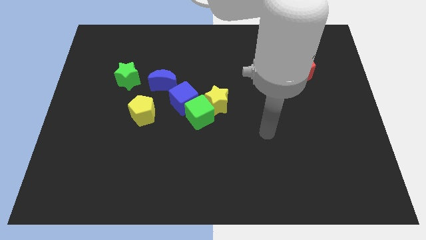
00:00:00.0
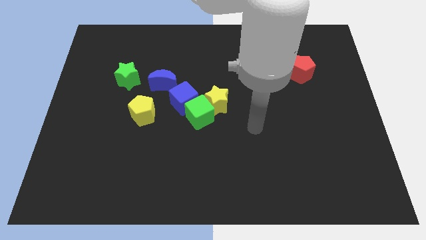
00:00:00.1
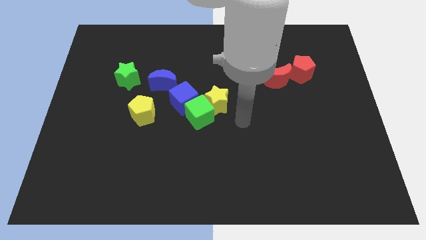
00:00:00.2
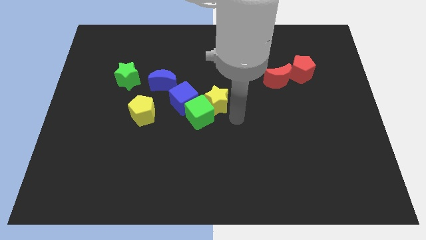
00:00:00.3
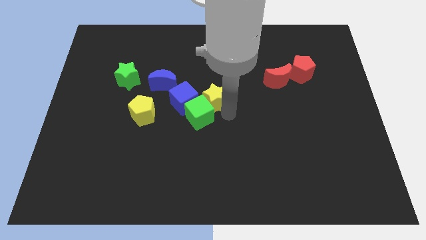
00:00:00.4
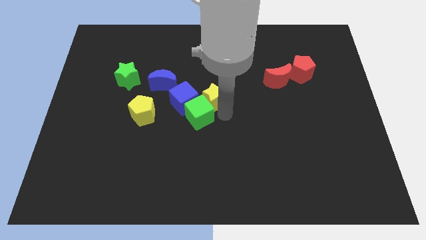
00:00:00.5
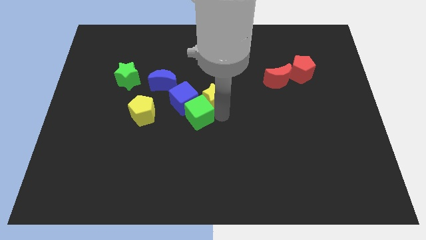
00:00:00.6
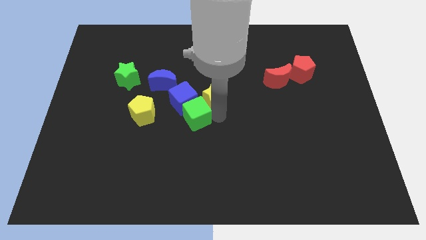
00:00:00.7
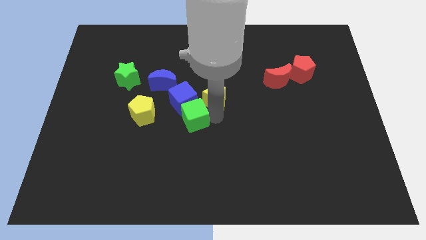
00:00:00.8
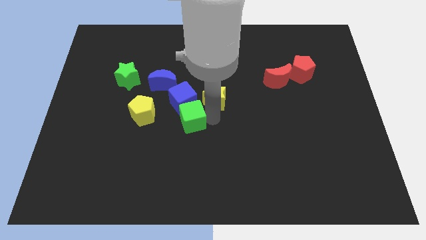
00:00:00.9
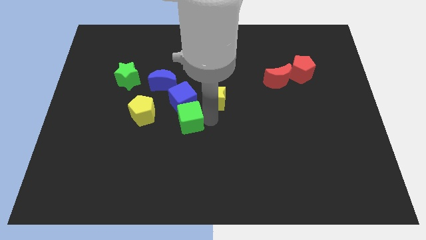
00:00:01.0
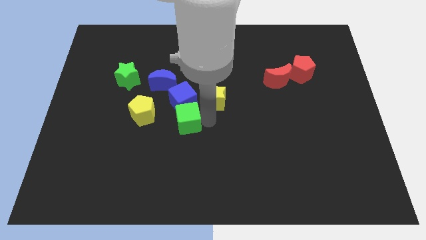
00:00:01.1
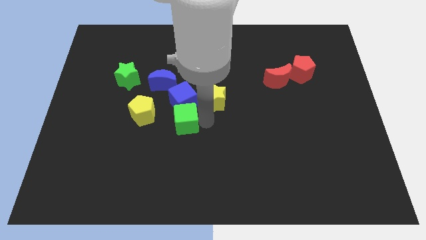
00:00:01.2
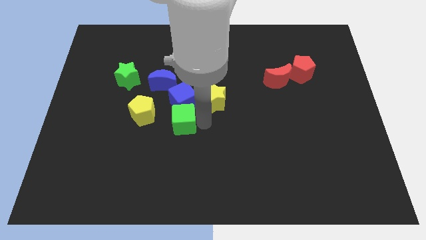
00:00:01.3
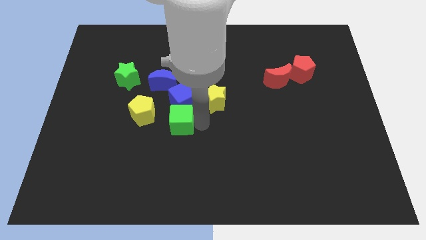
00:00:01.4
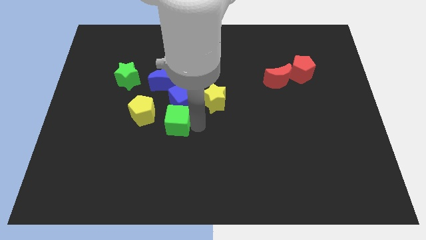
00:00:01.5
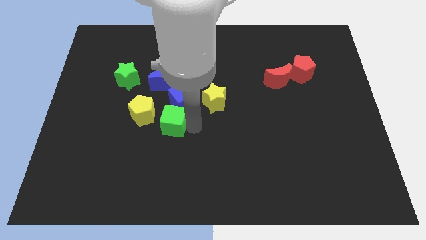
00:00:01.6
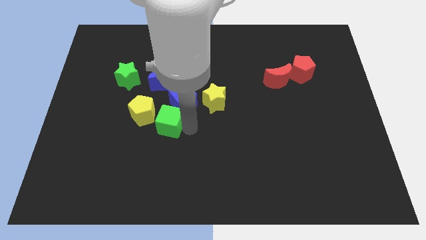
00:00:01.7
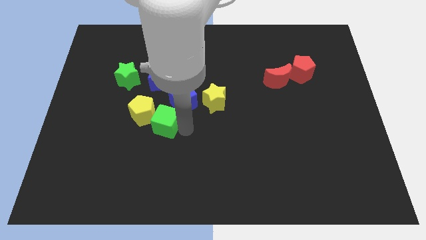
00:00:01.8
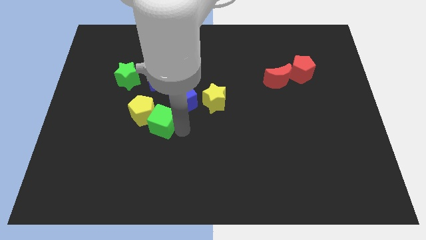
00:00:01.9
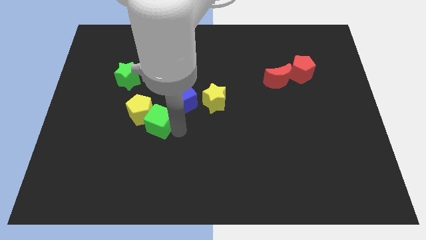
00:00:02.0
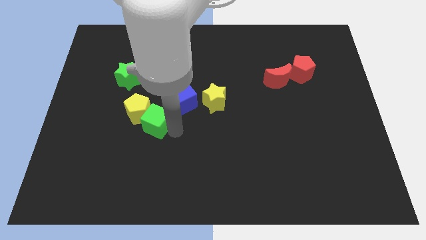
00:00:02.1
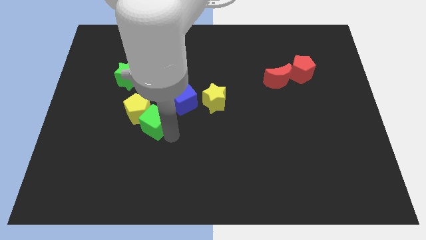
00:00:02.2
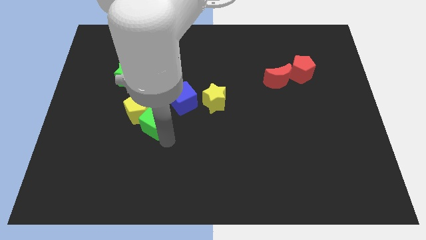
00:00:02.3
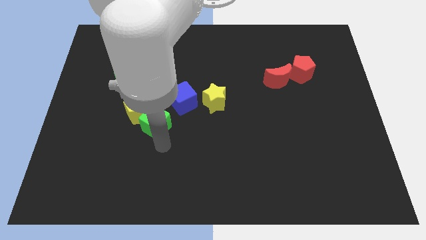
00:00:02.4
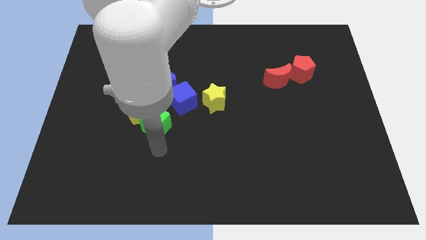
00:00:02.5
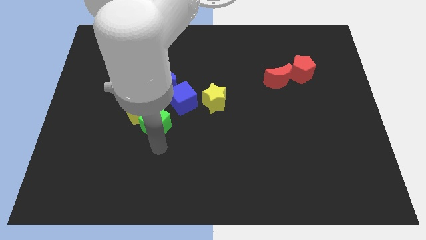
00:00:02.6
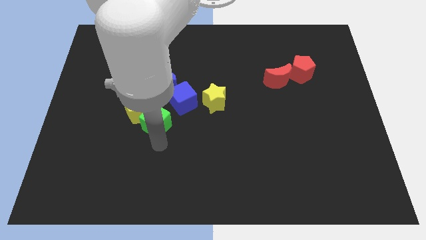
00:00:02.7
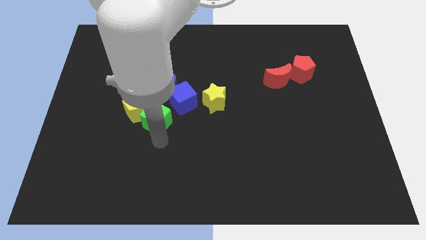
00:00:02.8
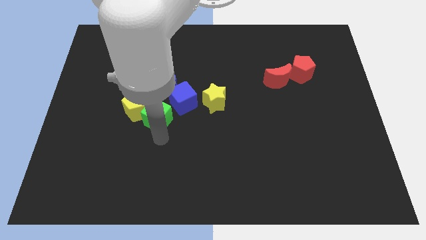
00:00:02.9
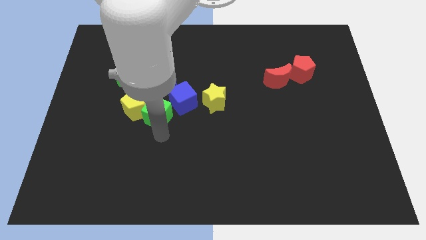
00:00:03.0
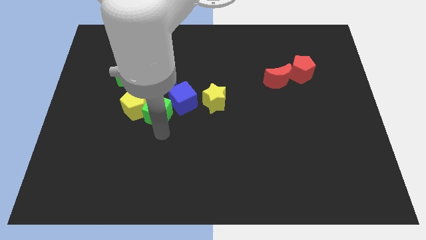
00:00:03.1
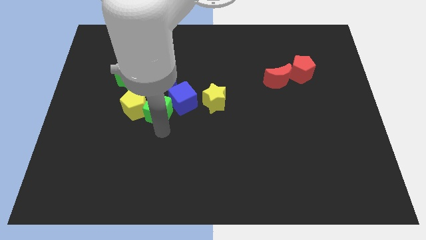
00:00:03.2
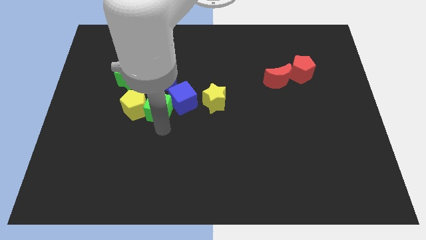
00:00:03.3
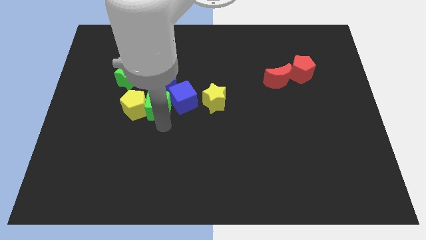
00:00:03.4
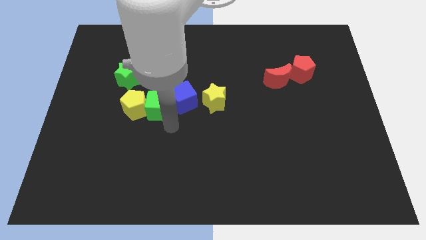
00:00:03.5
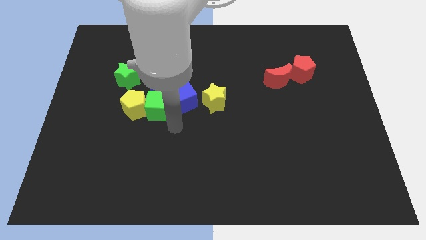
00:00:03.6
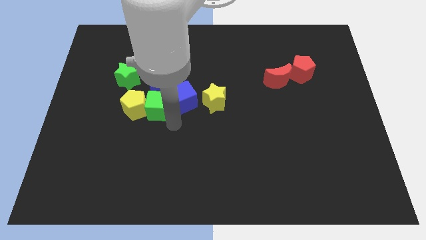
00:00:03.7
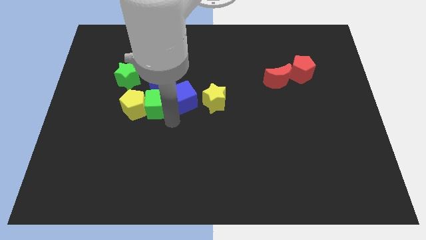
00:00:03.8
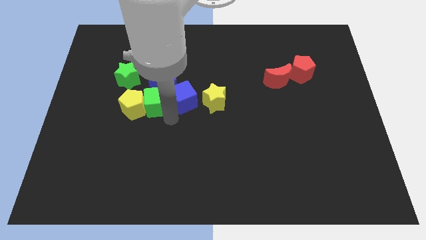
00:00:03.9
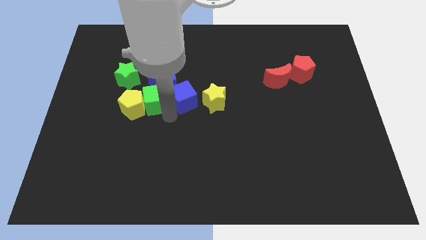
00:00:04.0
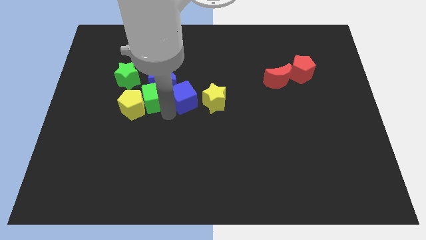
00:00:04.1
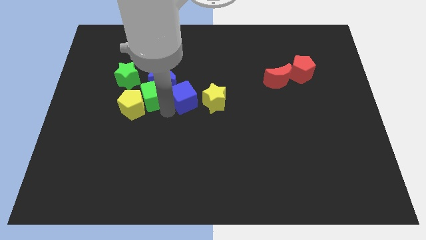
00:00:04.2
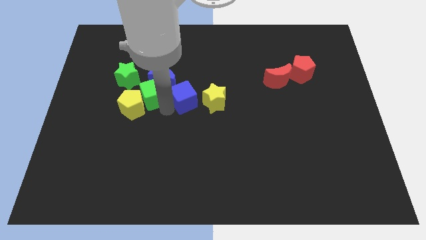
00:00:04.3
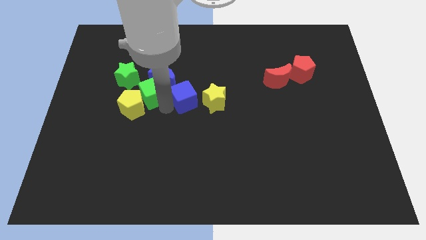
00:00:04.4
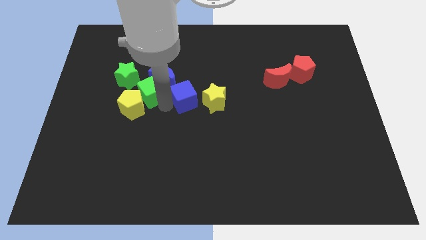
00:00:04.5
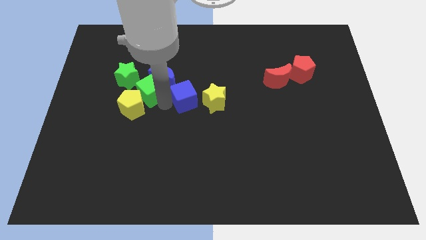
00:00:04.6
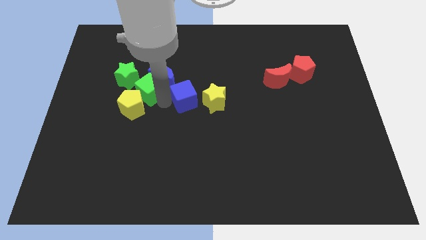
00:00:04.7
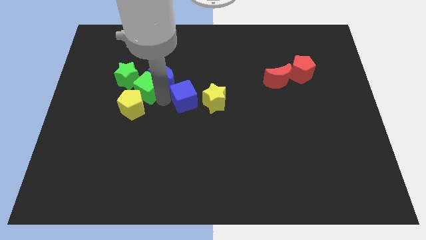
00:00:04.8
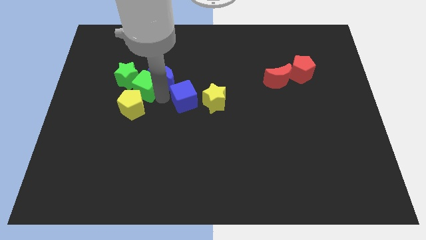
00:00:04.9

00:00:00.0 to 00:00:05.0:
move the green cube to the green star

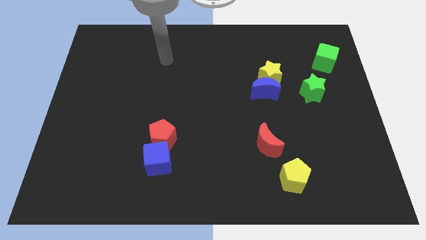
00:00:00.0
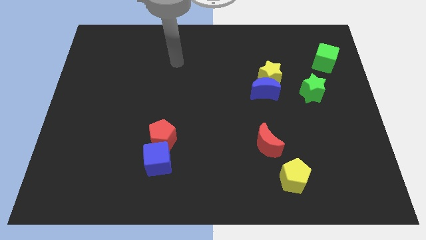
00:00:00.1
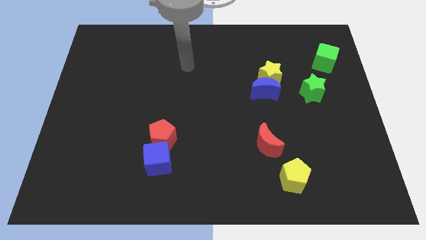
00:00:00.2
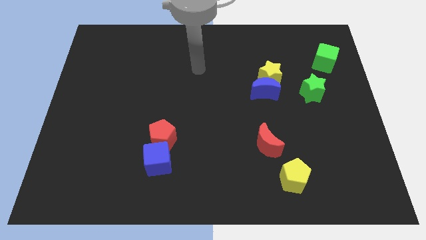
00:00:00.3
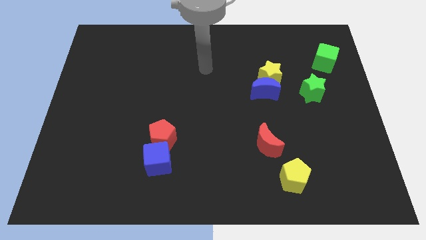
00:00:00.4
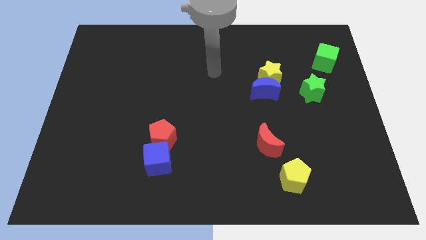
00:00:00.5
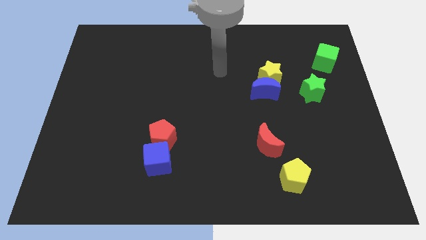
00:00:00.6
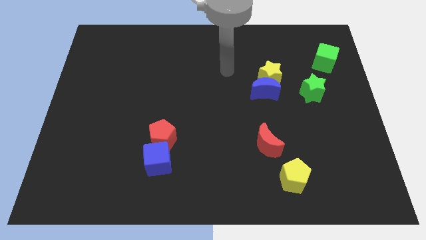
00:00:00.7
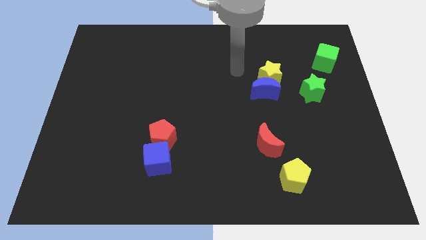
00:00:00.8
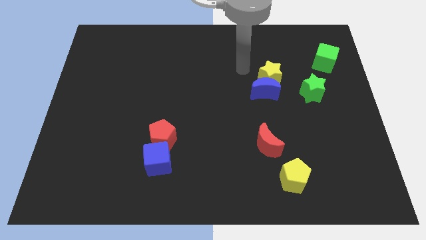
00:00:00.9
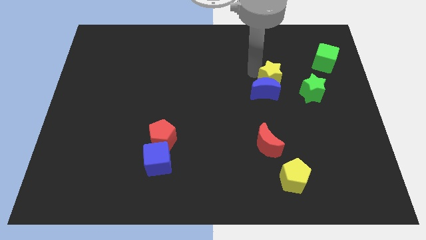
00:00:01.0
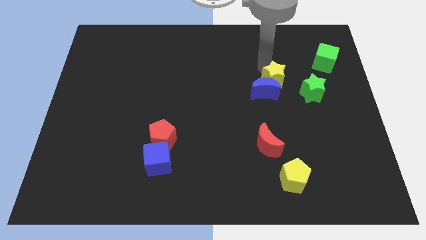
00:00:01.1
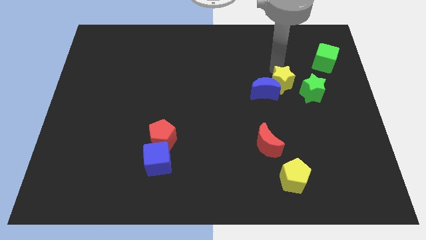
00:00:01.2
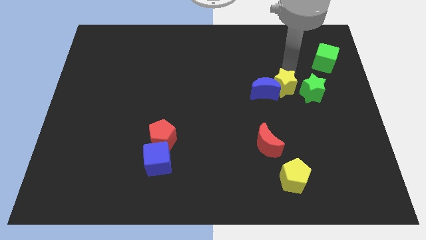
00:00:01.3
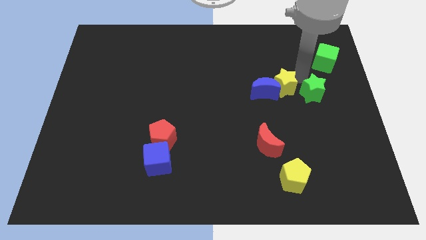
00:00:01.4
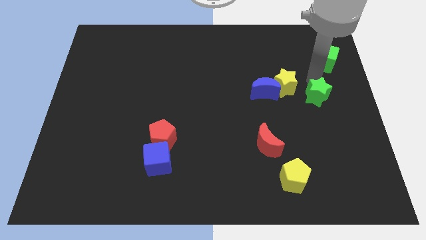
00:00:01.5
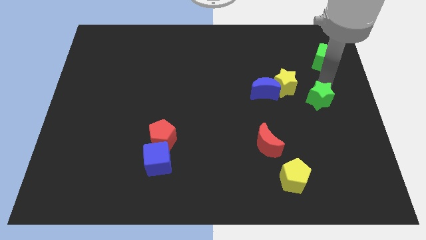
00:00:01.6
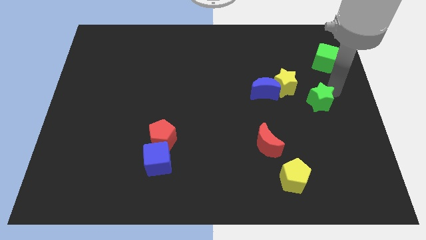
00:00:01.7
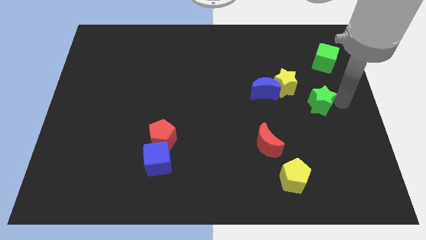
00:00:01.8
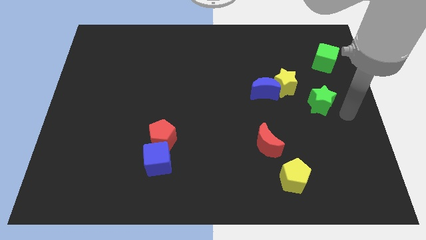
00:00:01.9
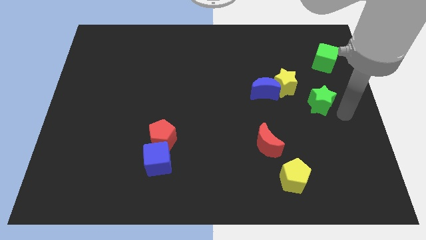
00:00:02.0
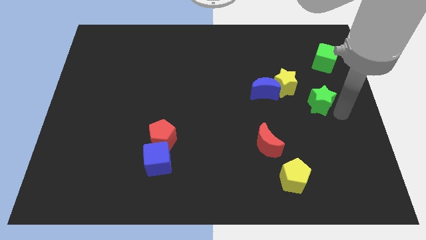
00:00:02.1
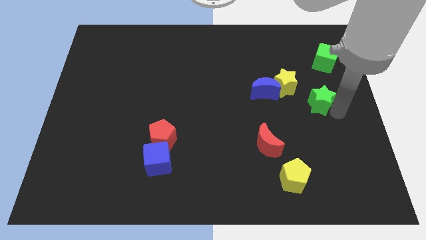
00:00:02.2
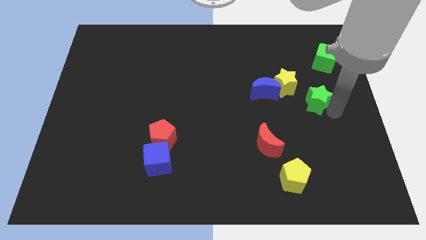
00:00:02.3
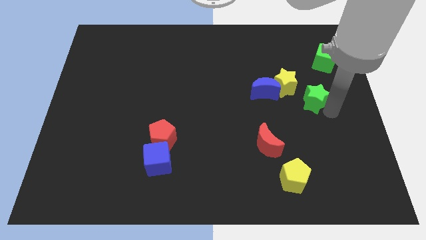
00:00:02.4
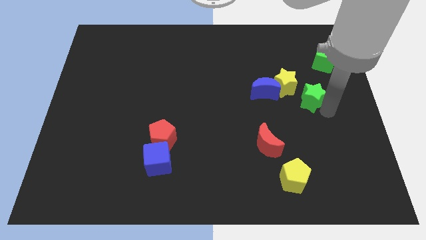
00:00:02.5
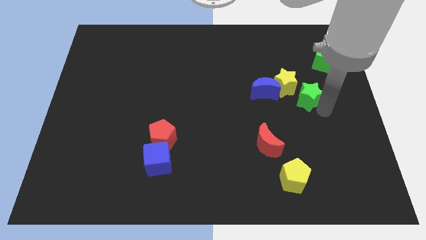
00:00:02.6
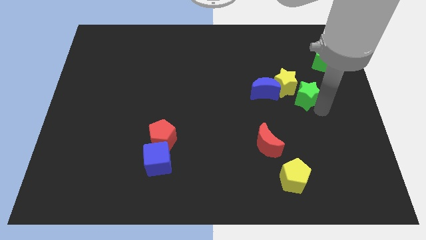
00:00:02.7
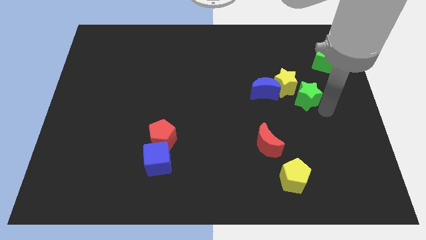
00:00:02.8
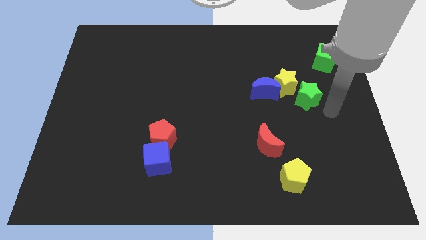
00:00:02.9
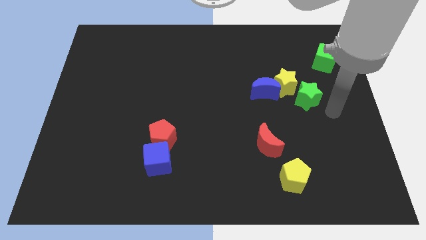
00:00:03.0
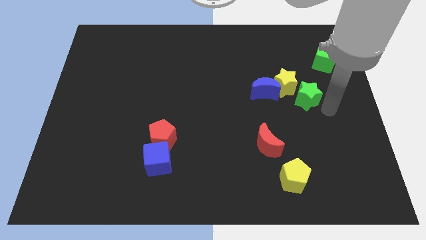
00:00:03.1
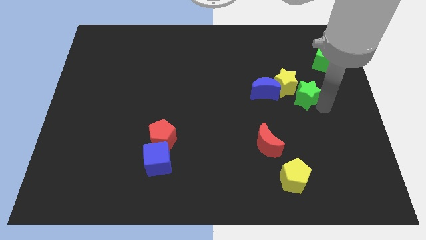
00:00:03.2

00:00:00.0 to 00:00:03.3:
push the green star towards the yellow star
